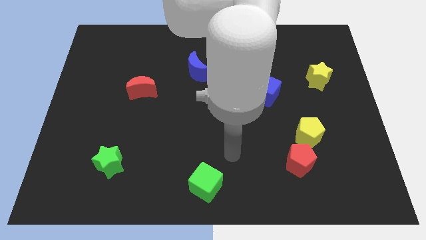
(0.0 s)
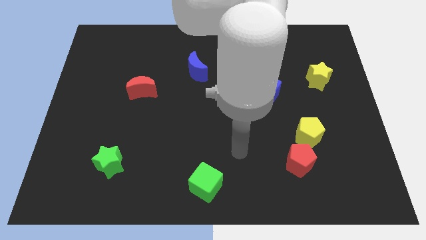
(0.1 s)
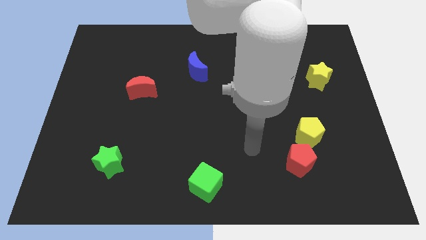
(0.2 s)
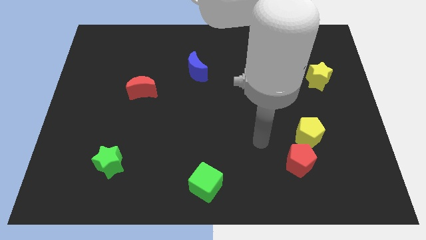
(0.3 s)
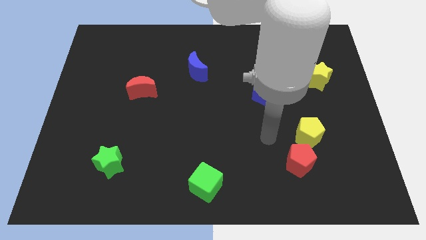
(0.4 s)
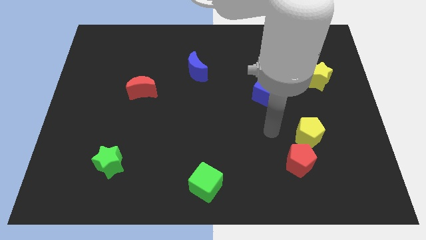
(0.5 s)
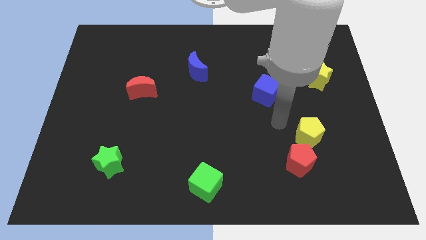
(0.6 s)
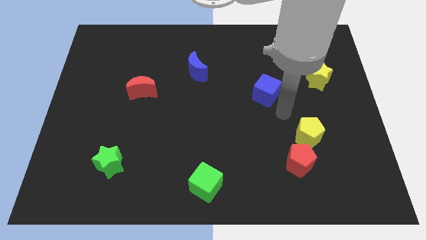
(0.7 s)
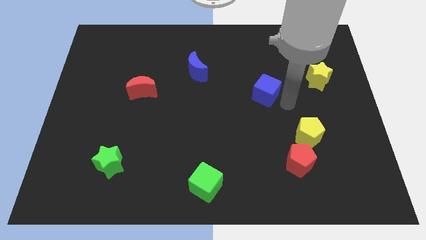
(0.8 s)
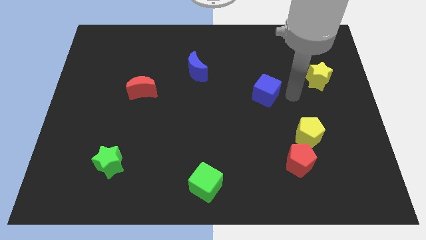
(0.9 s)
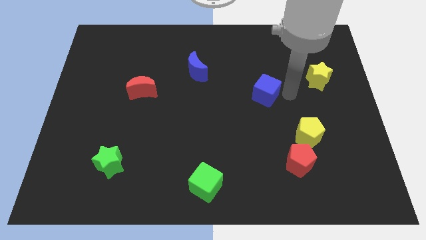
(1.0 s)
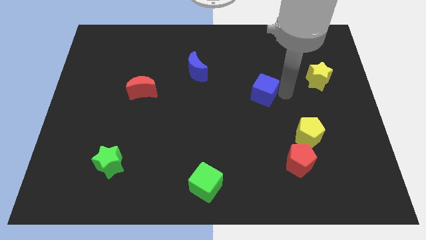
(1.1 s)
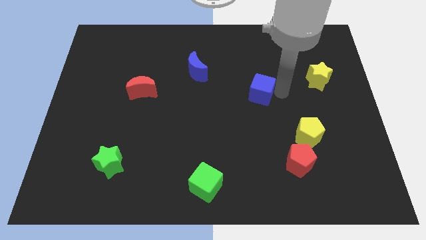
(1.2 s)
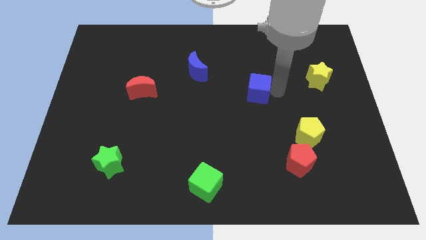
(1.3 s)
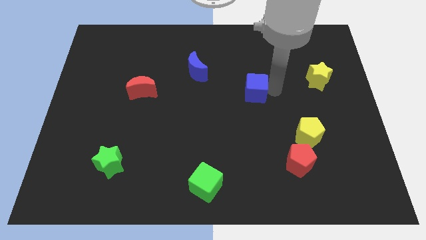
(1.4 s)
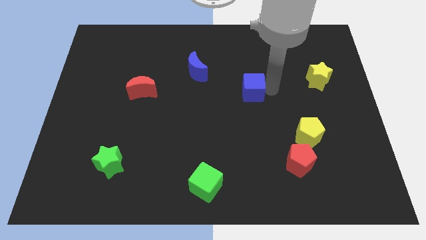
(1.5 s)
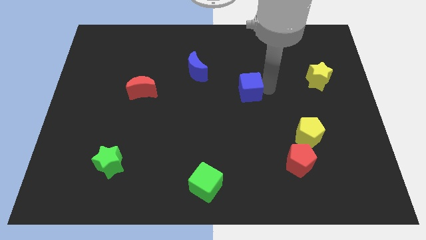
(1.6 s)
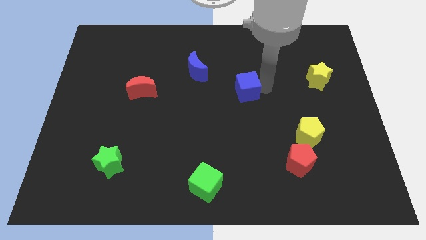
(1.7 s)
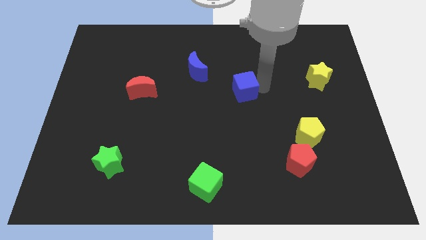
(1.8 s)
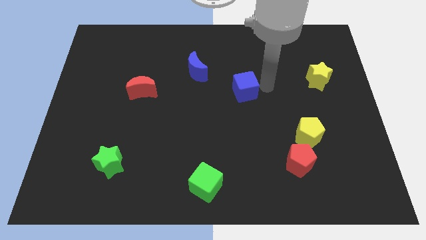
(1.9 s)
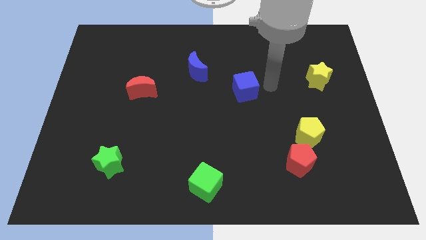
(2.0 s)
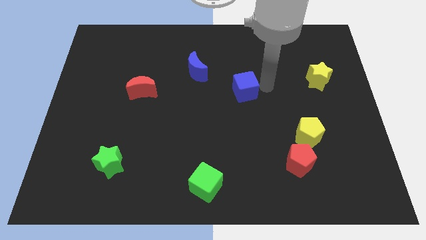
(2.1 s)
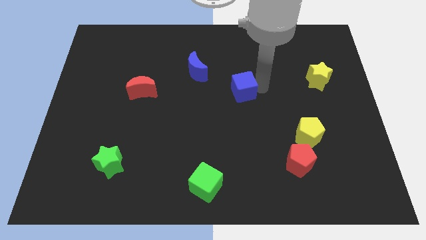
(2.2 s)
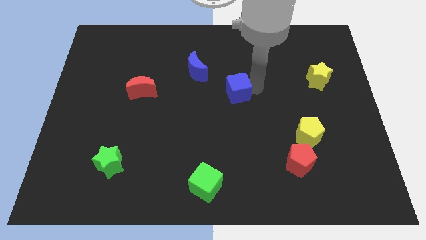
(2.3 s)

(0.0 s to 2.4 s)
slightly push the blue cube left

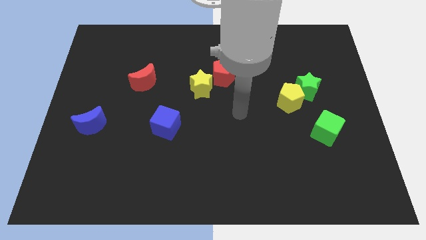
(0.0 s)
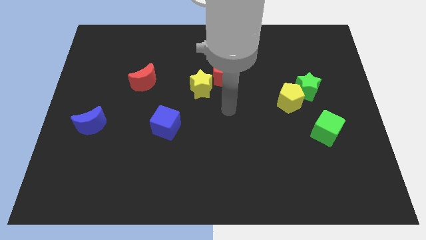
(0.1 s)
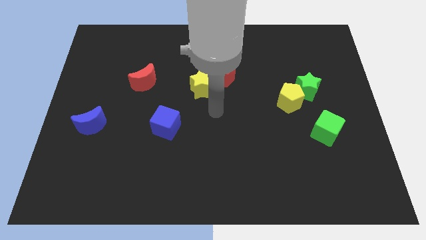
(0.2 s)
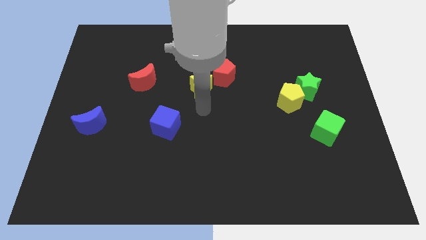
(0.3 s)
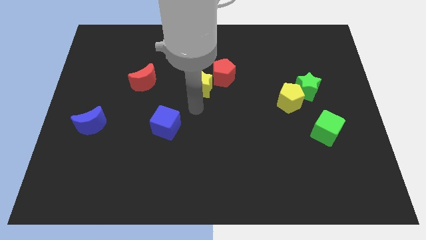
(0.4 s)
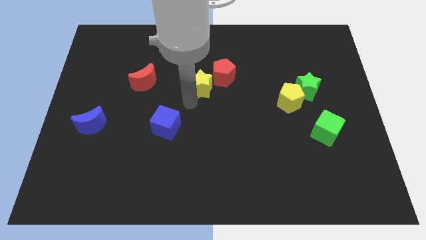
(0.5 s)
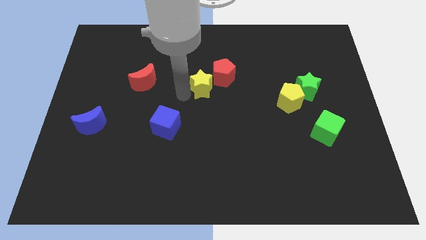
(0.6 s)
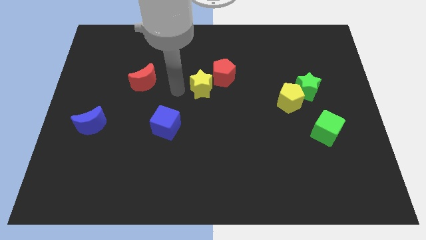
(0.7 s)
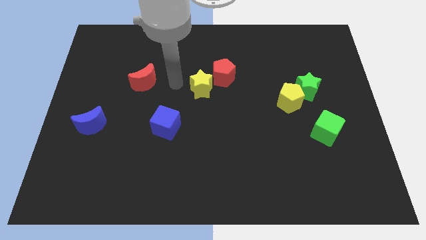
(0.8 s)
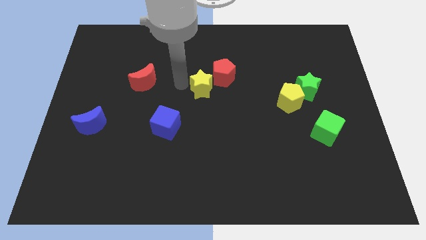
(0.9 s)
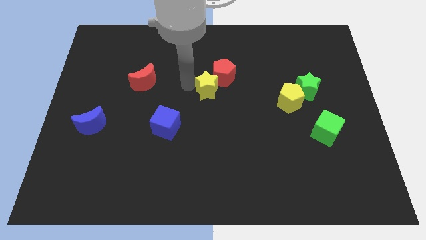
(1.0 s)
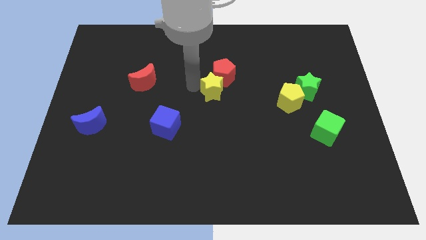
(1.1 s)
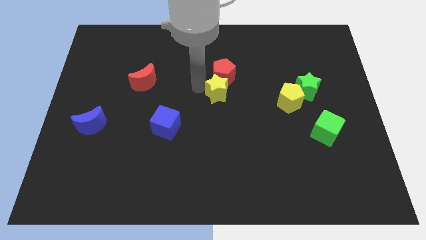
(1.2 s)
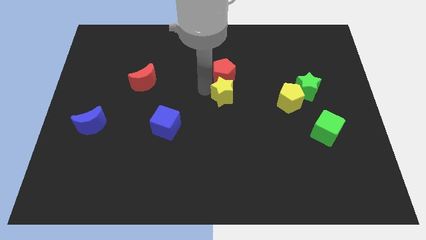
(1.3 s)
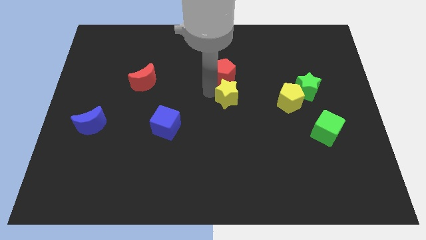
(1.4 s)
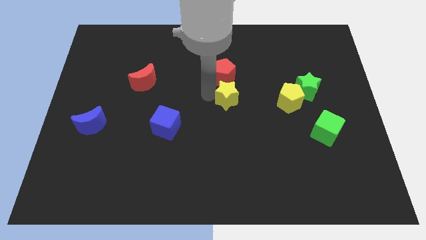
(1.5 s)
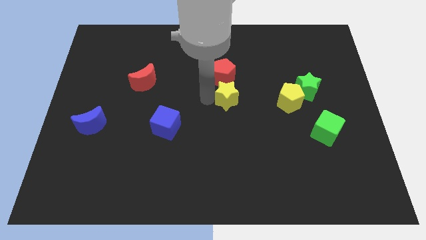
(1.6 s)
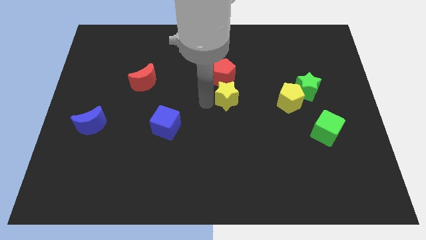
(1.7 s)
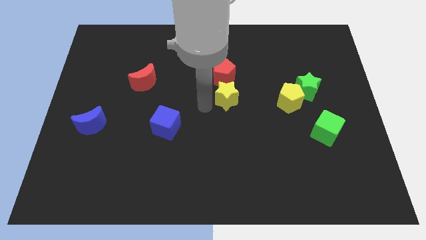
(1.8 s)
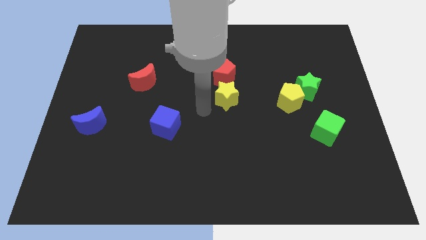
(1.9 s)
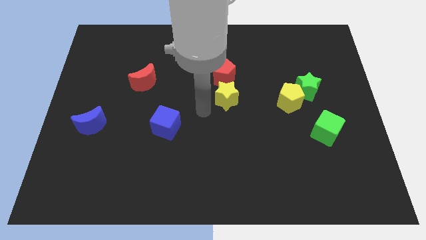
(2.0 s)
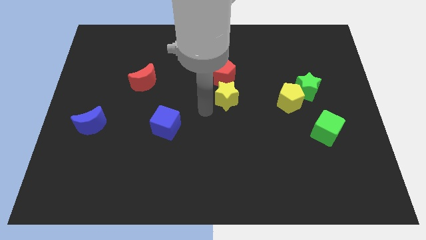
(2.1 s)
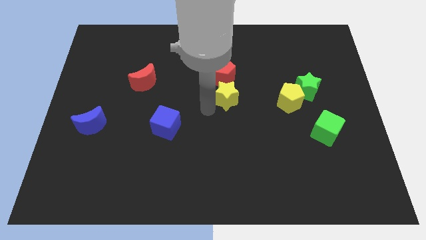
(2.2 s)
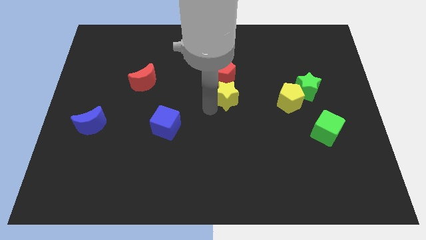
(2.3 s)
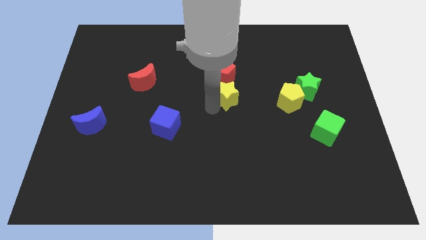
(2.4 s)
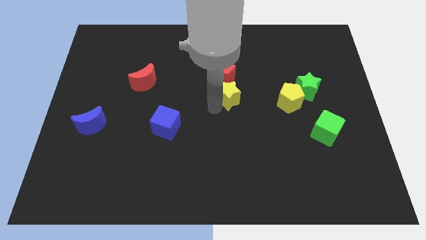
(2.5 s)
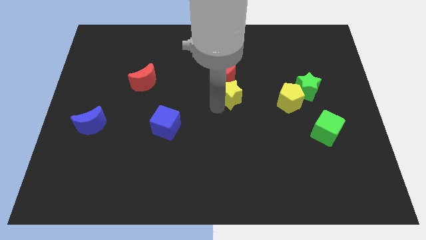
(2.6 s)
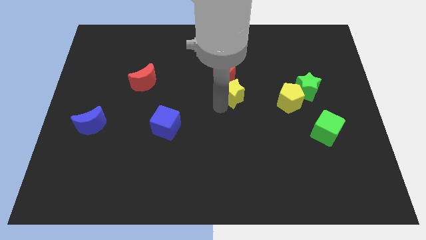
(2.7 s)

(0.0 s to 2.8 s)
slightly slide the yellow star to the right

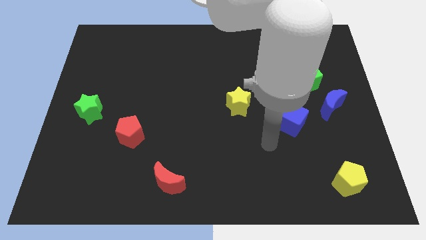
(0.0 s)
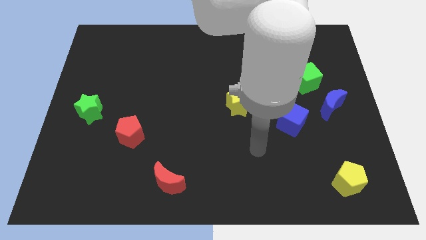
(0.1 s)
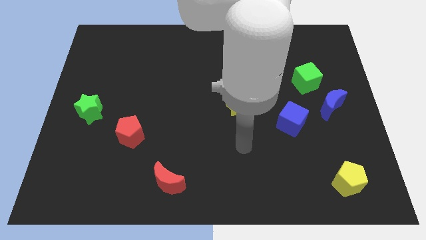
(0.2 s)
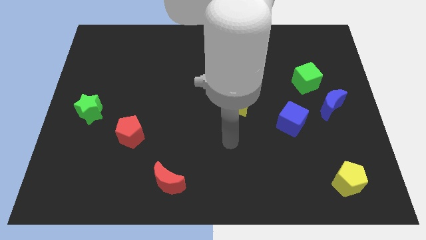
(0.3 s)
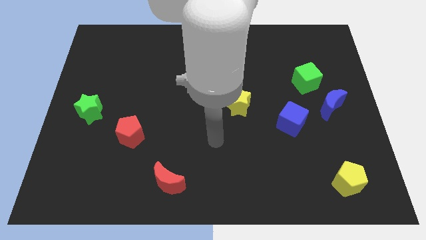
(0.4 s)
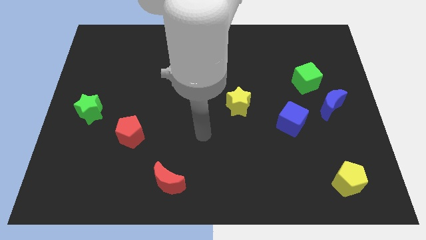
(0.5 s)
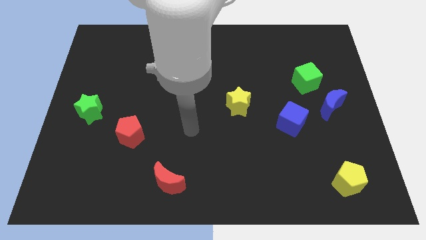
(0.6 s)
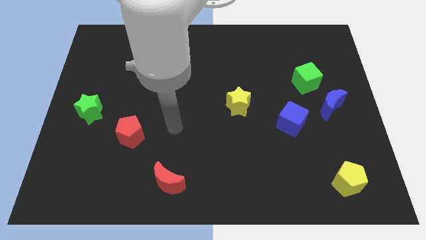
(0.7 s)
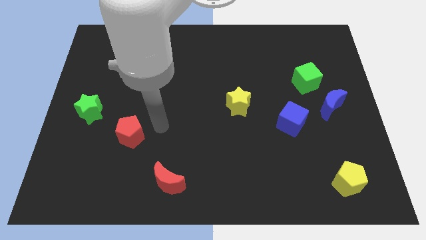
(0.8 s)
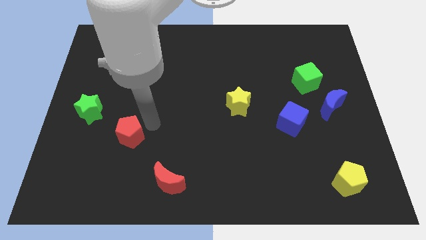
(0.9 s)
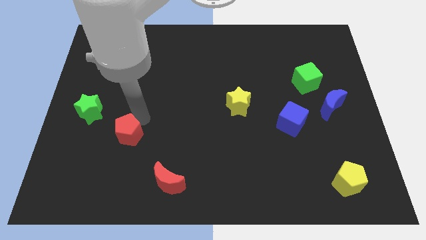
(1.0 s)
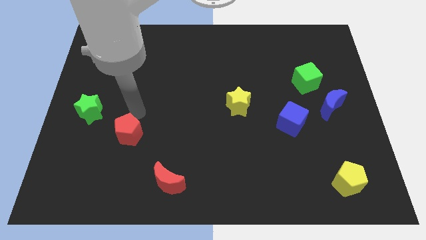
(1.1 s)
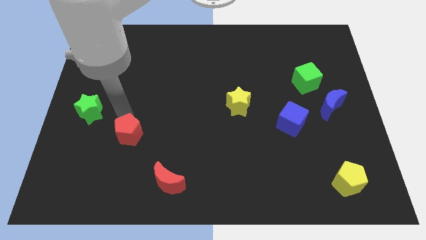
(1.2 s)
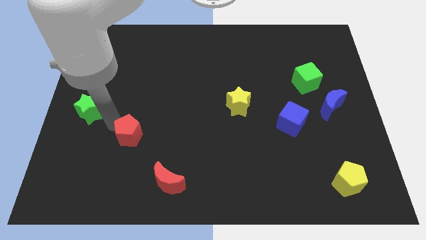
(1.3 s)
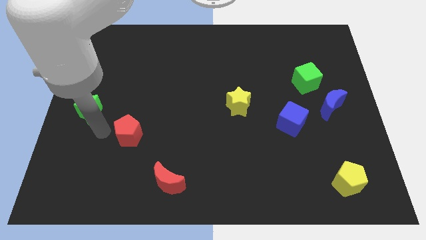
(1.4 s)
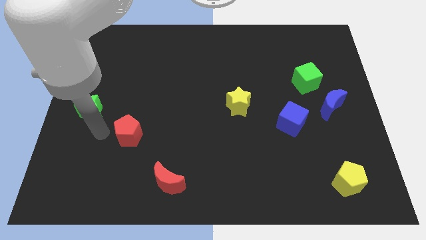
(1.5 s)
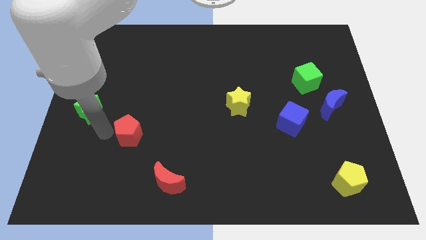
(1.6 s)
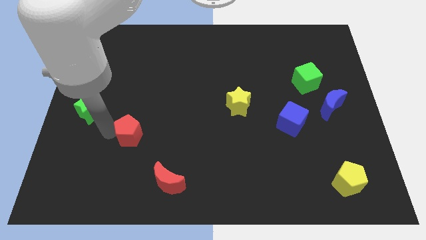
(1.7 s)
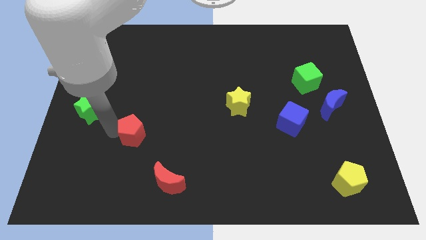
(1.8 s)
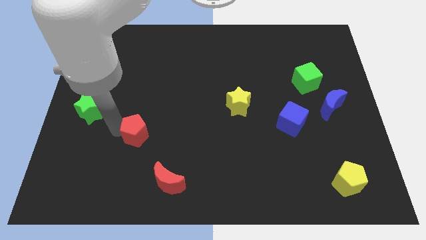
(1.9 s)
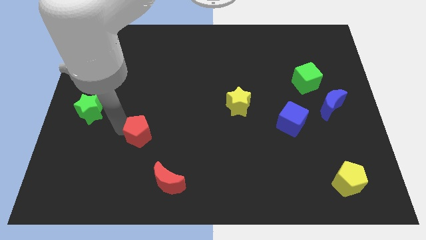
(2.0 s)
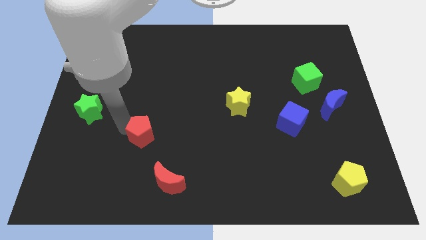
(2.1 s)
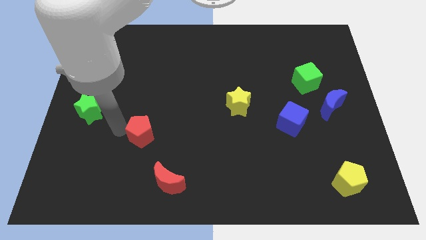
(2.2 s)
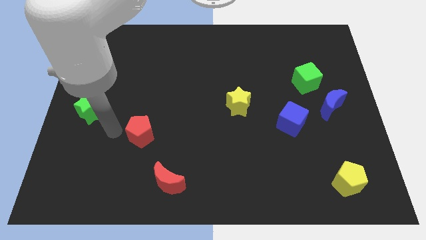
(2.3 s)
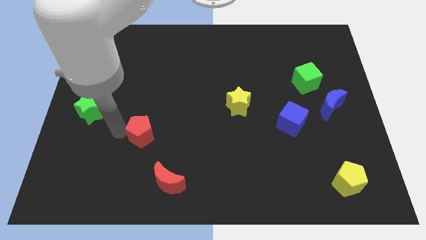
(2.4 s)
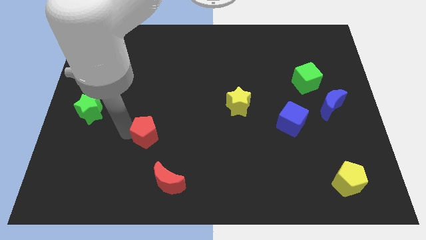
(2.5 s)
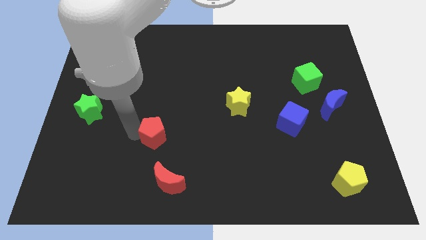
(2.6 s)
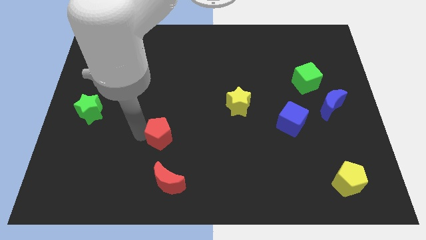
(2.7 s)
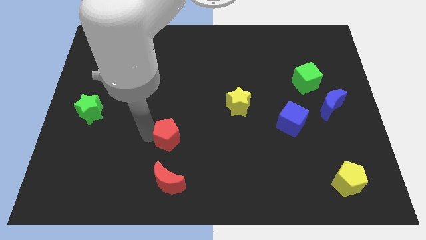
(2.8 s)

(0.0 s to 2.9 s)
push the red pentagon slightly to the right
